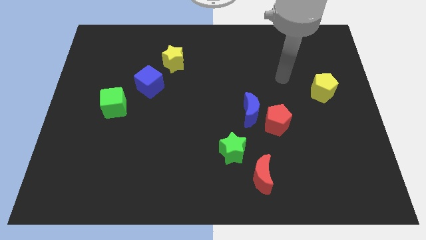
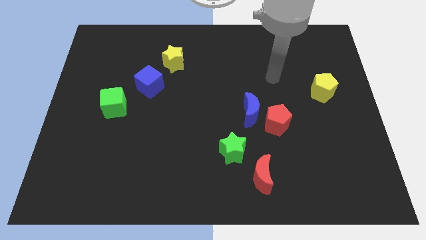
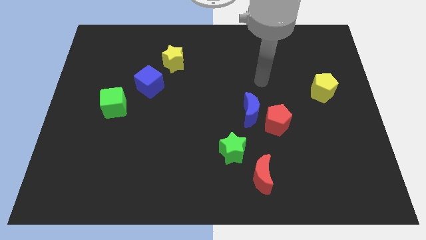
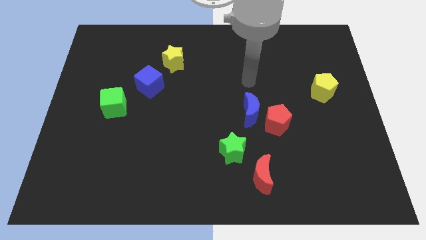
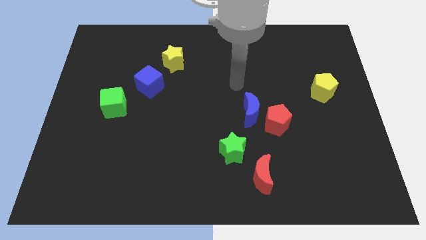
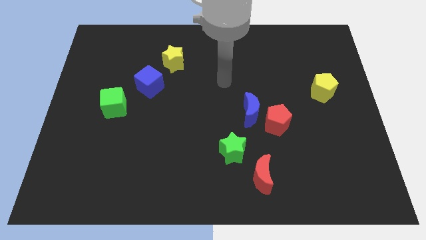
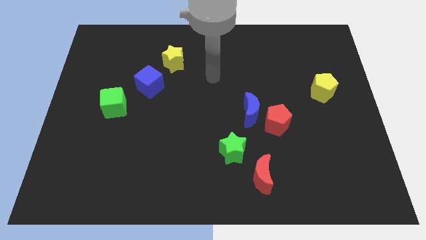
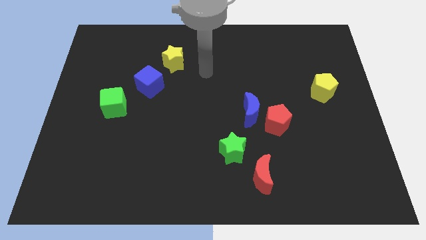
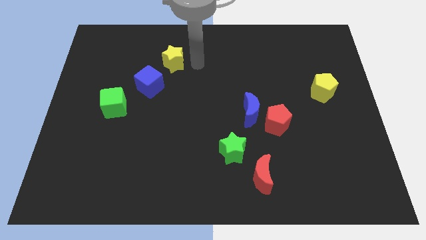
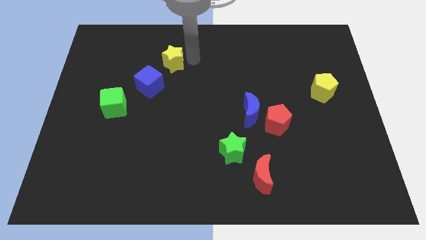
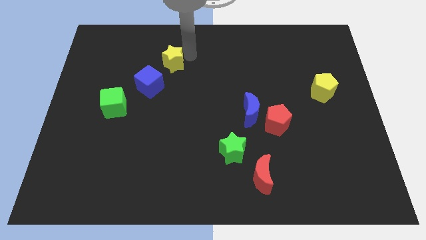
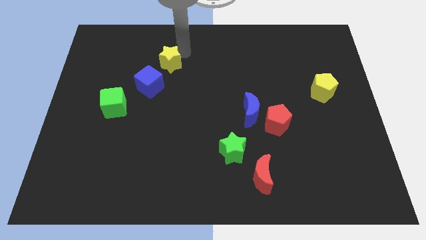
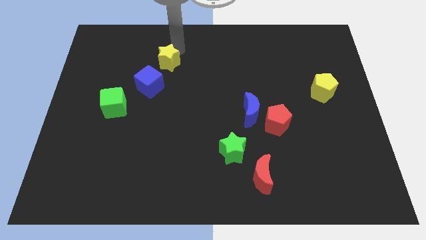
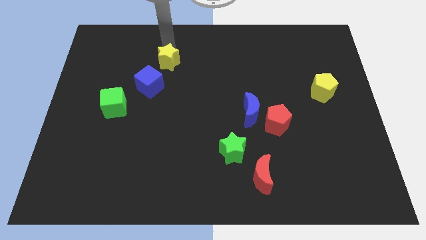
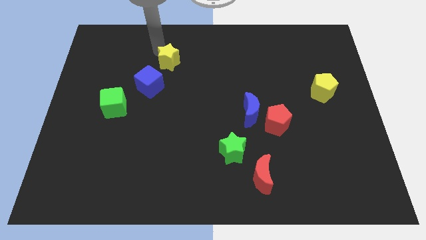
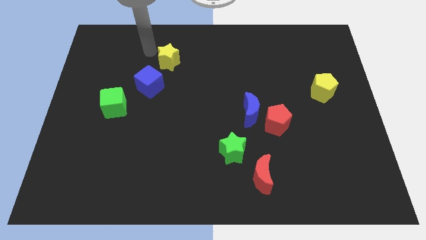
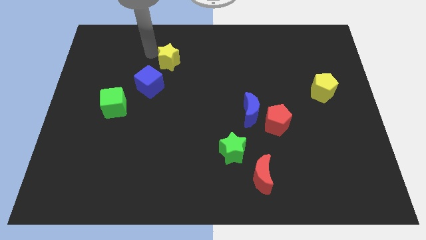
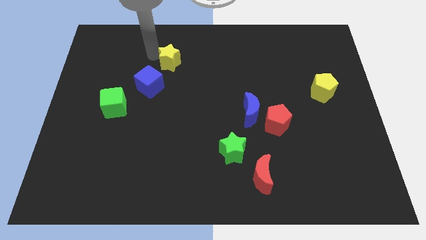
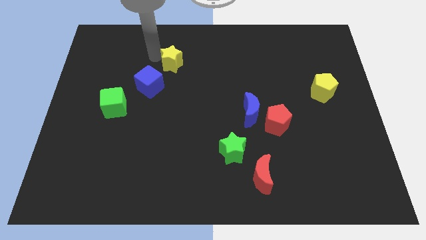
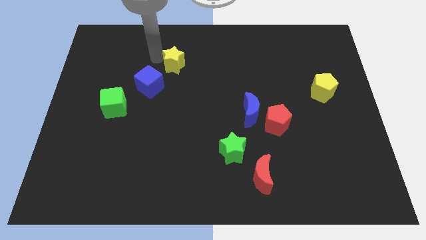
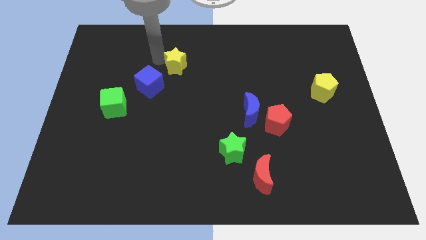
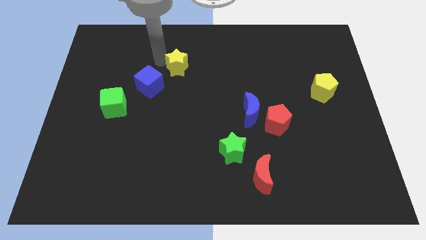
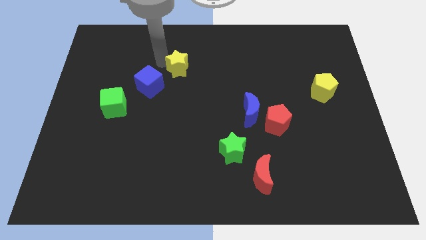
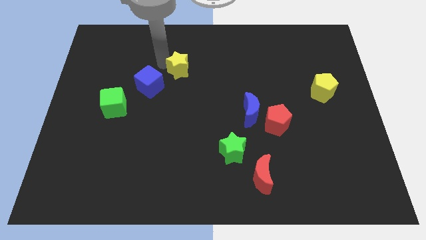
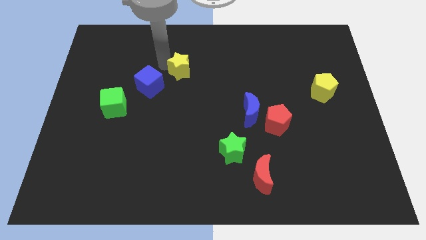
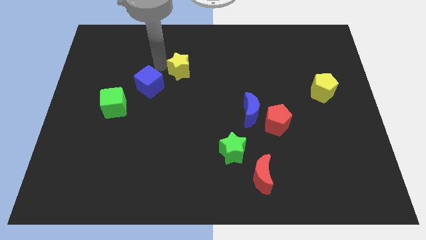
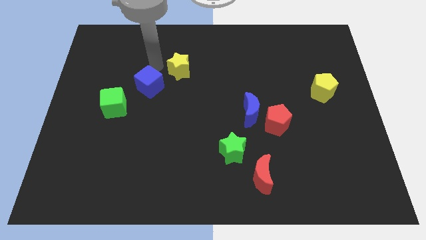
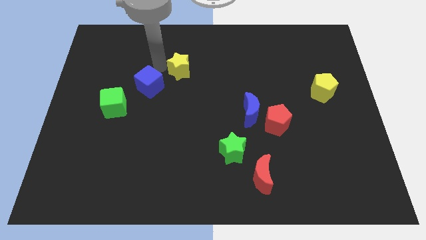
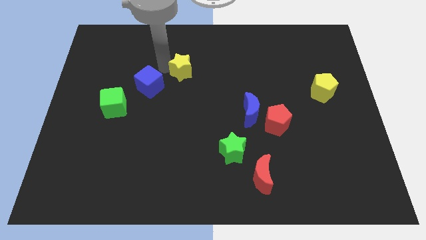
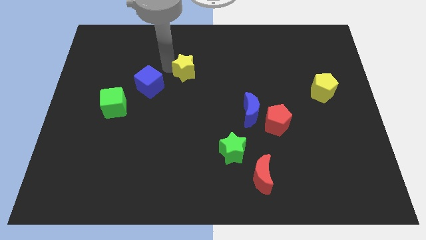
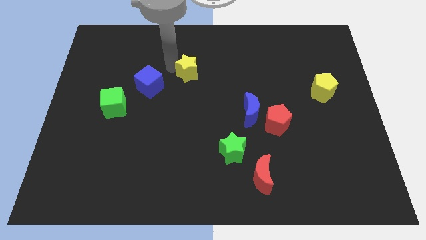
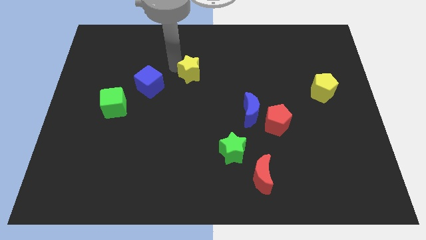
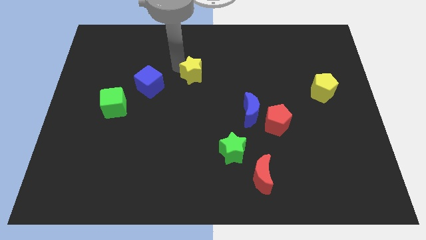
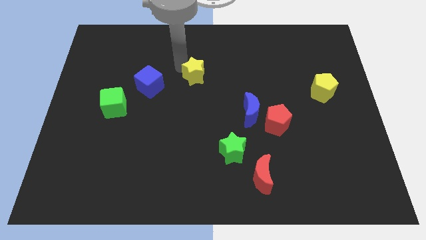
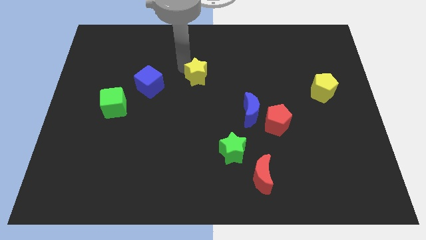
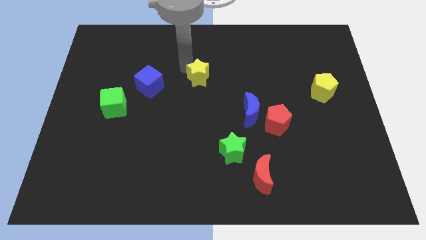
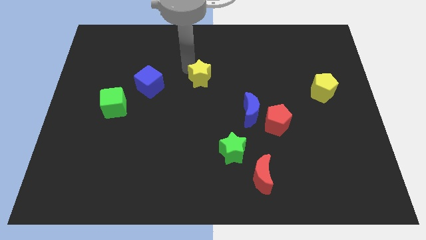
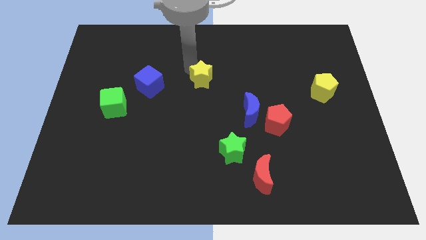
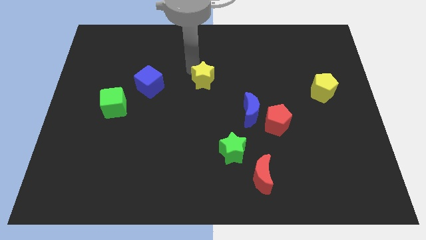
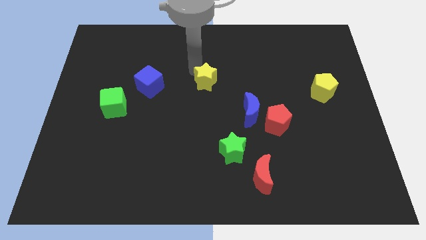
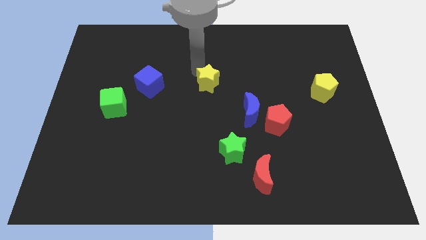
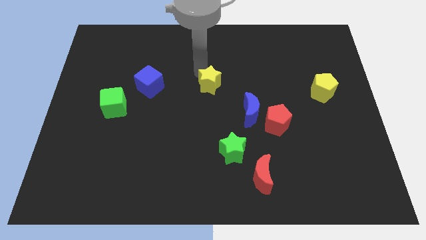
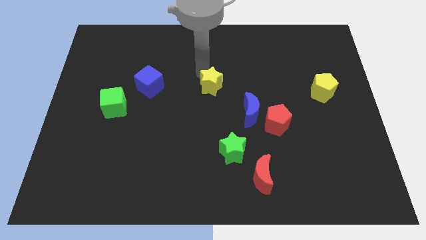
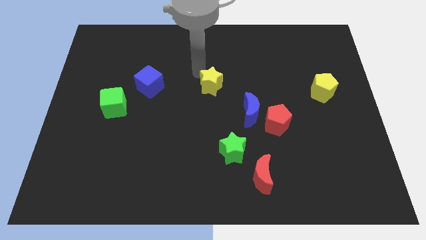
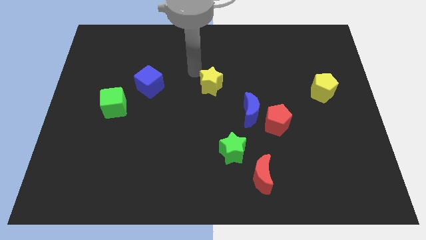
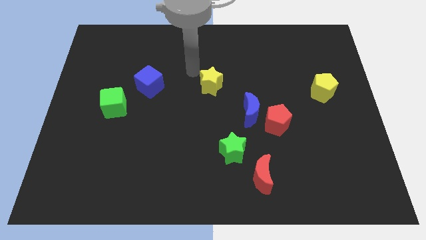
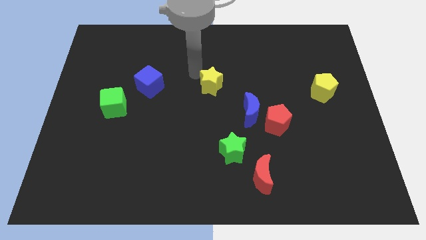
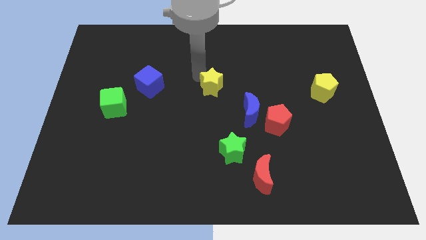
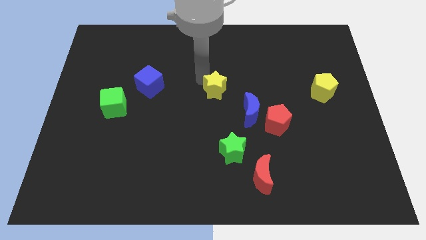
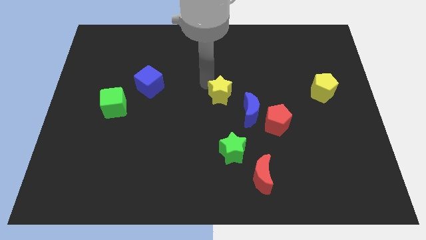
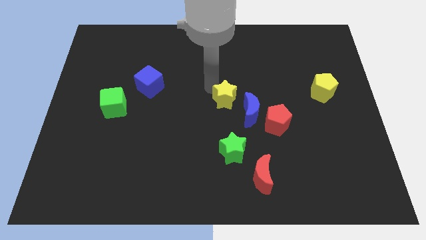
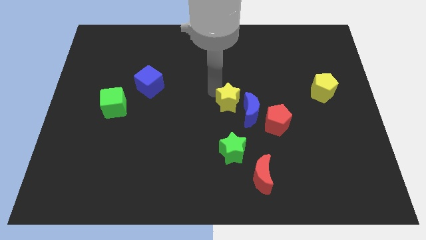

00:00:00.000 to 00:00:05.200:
push the yellow star next to the blue moon

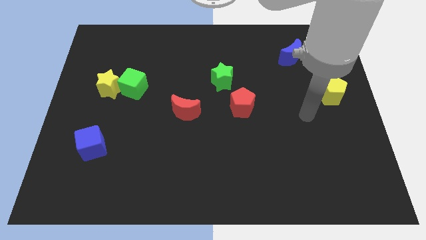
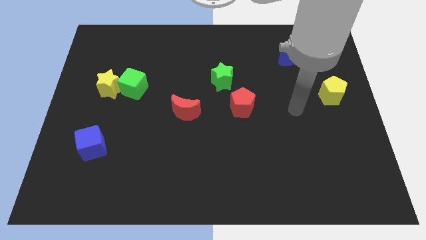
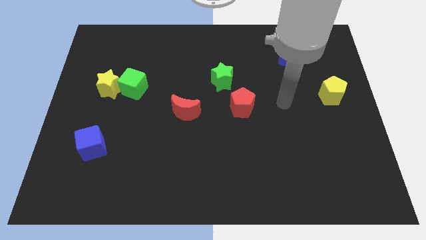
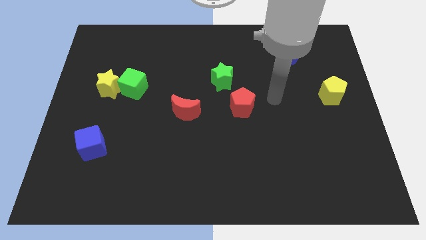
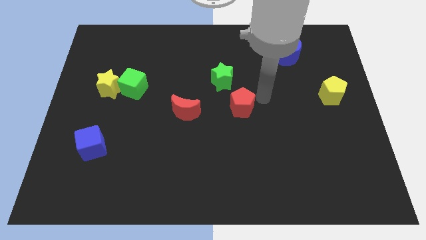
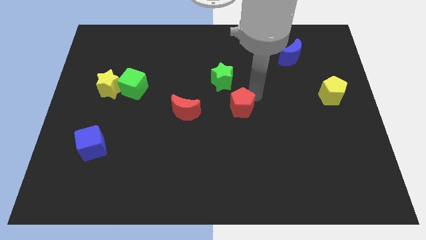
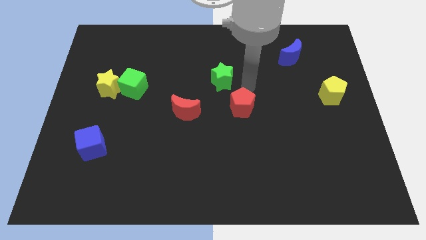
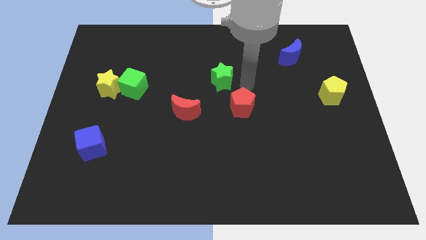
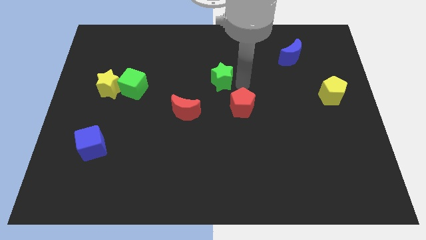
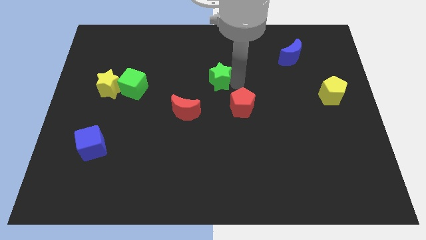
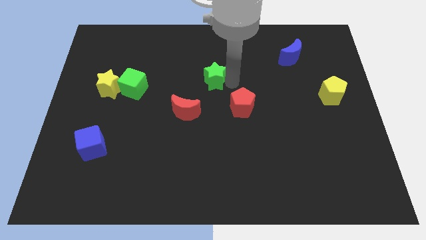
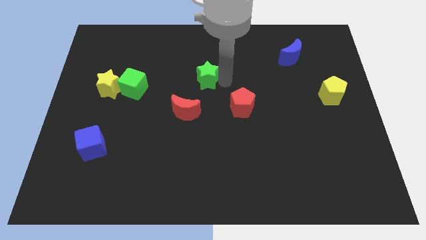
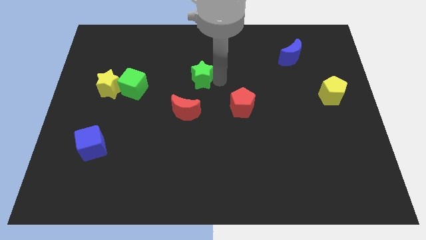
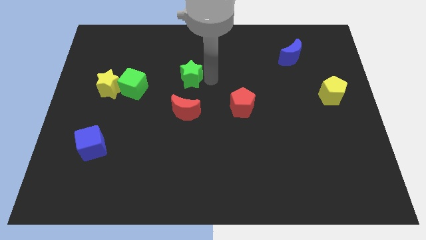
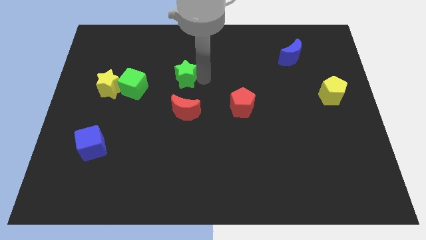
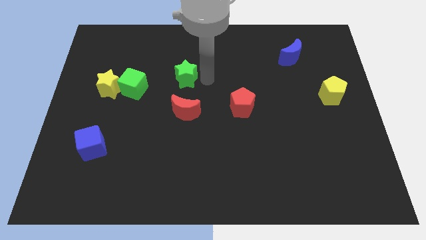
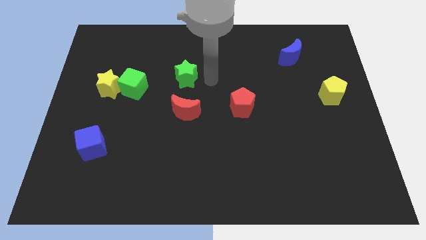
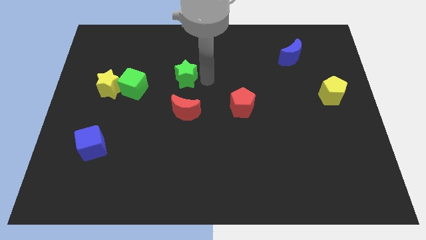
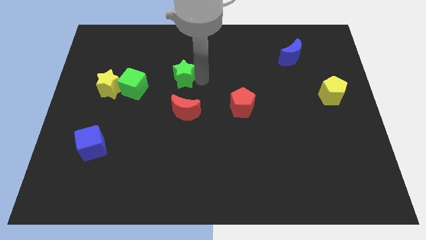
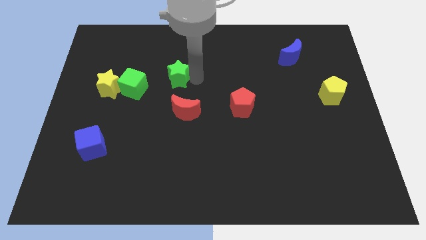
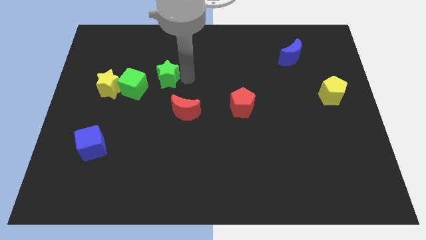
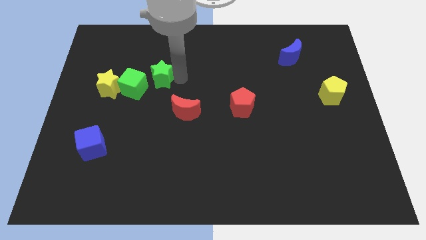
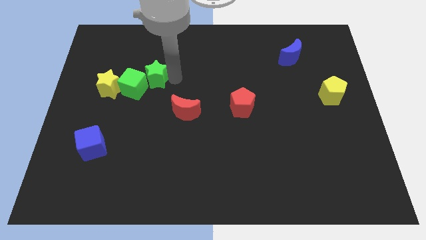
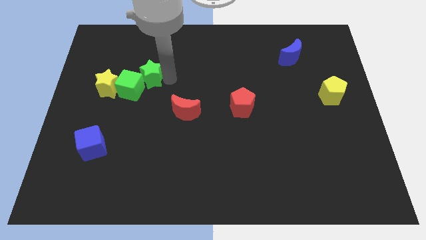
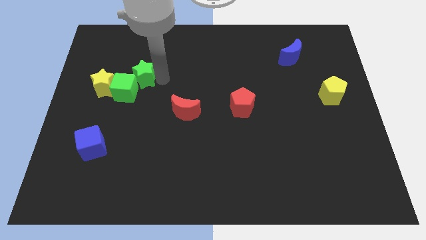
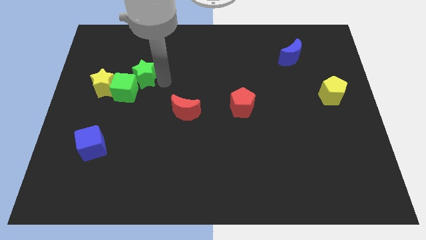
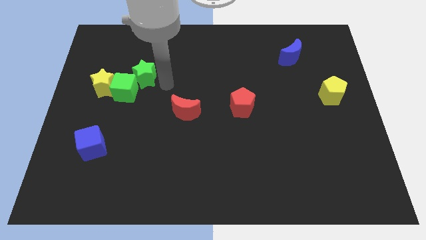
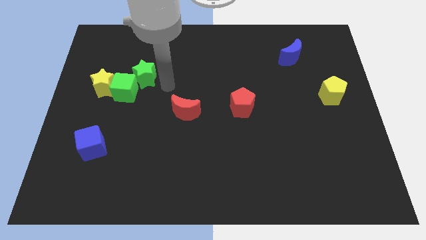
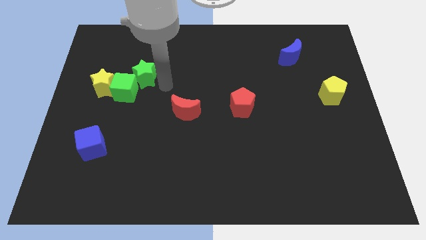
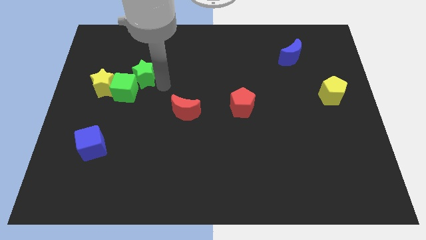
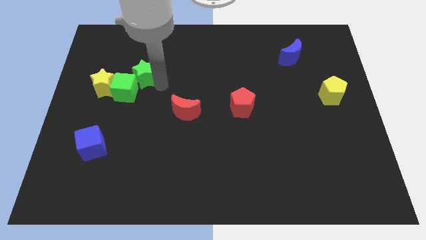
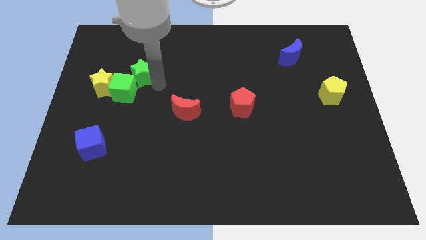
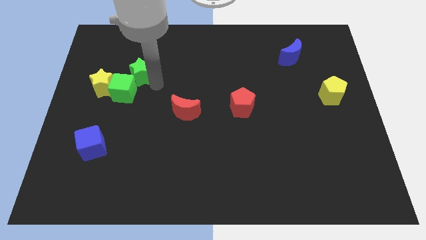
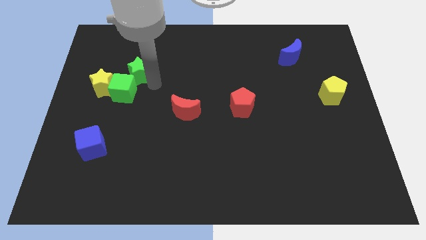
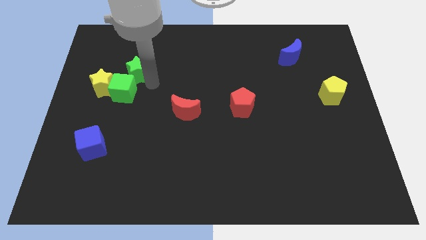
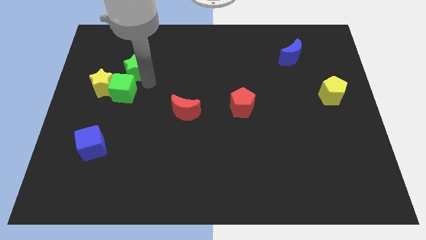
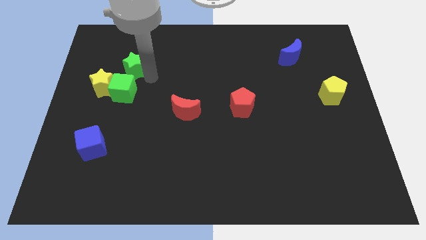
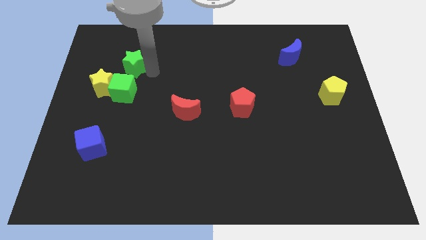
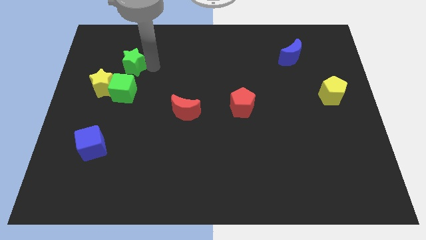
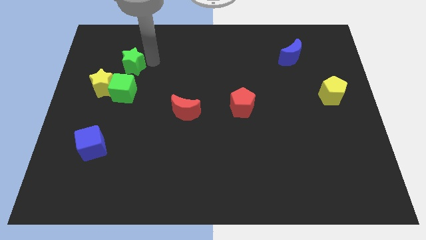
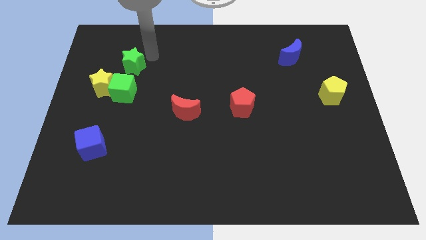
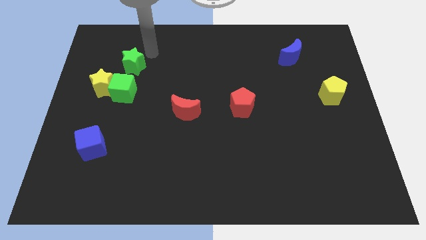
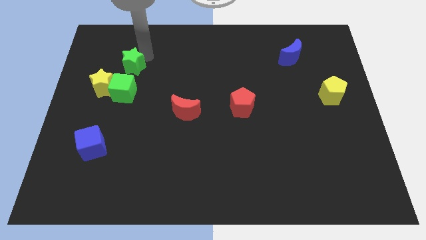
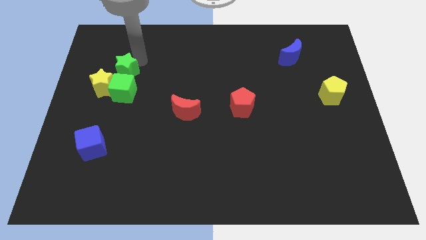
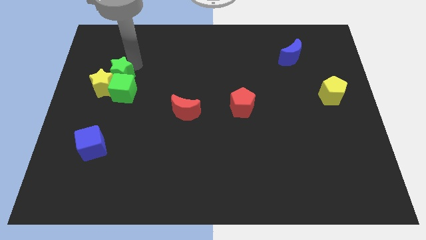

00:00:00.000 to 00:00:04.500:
move the green star towards the yellow star
